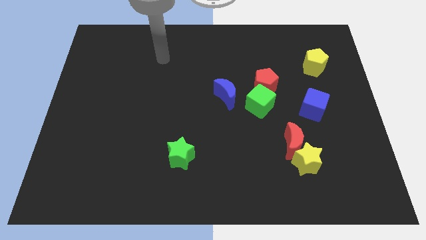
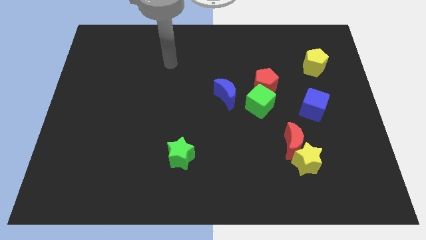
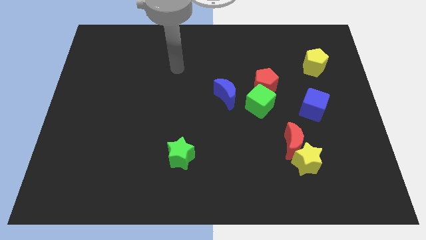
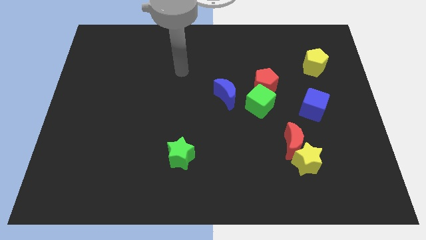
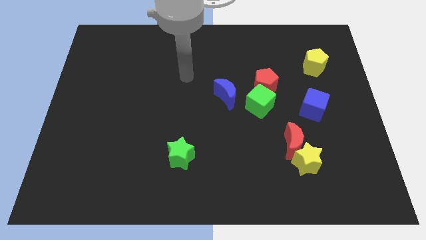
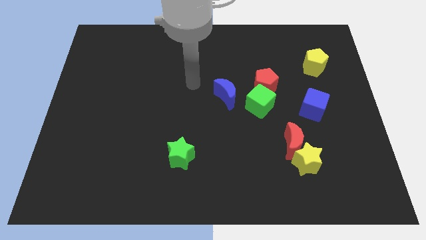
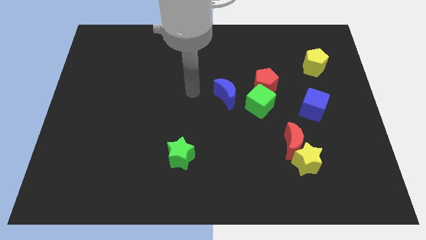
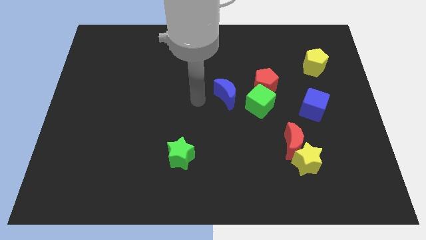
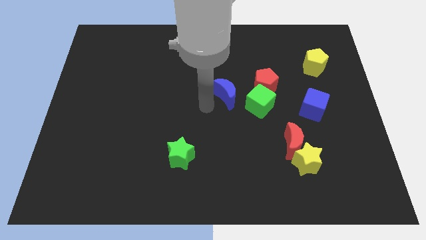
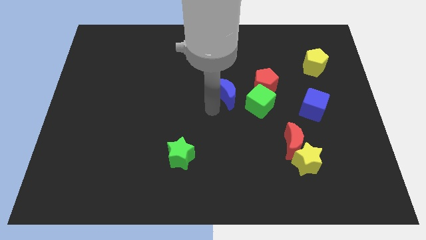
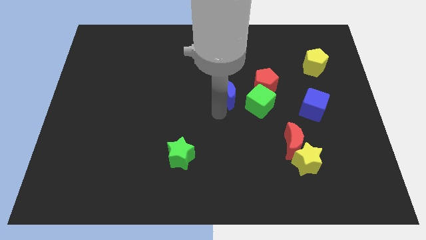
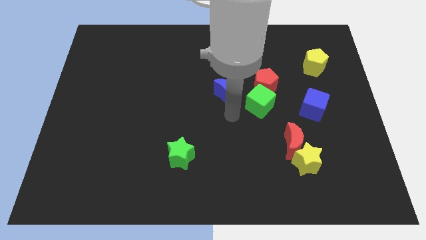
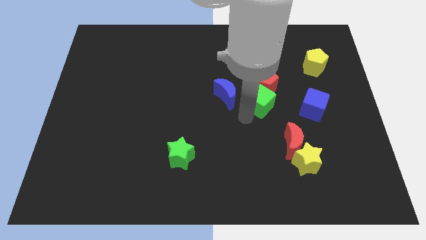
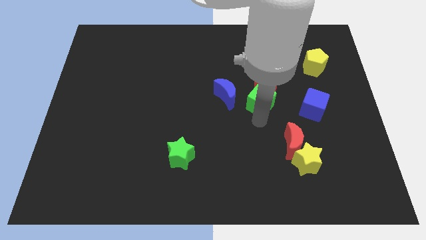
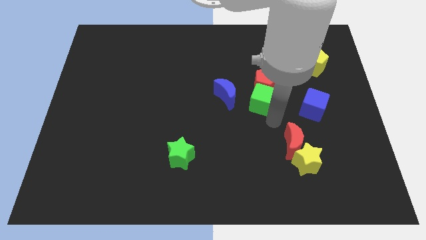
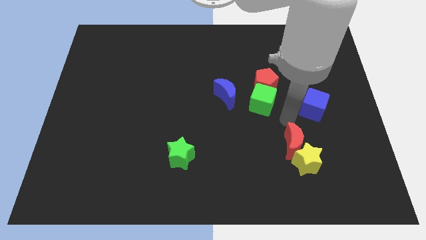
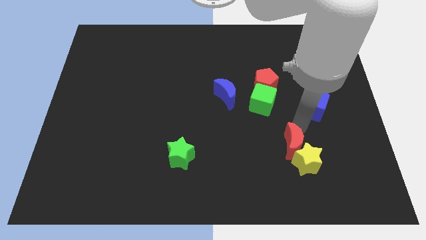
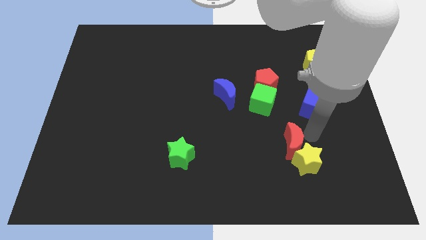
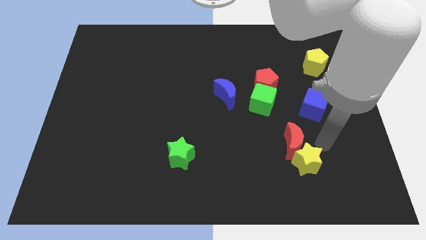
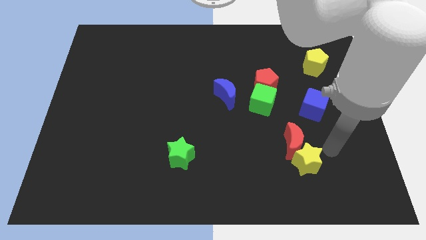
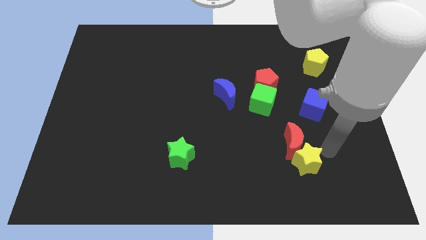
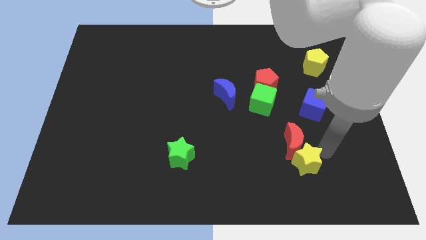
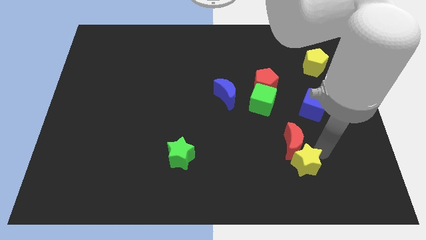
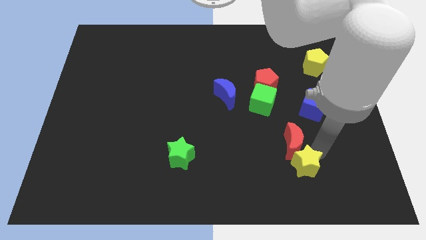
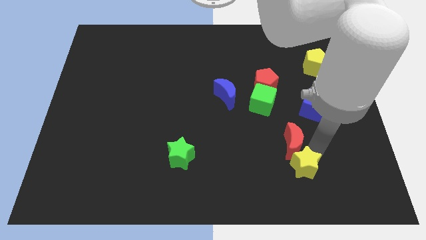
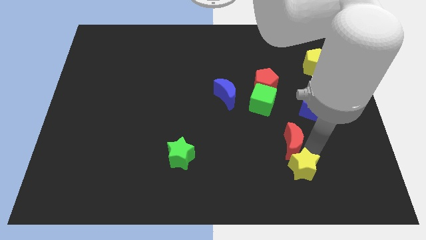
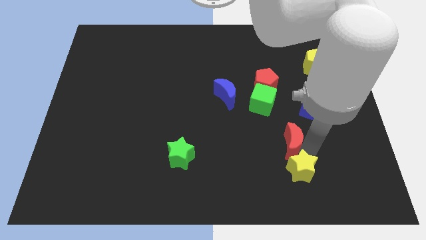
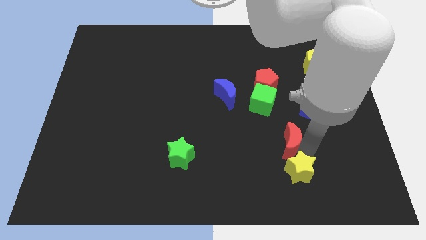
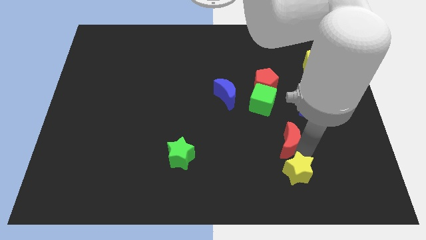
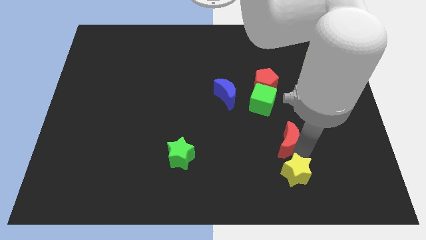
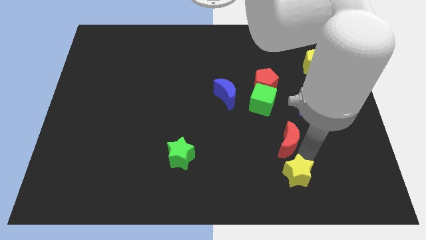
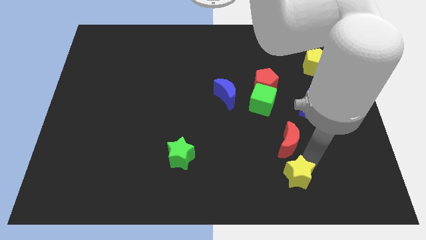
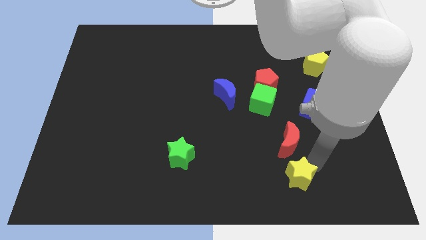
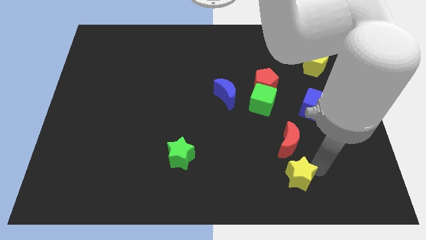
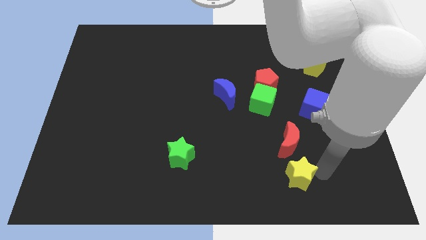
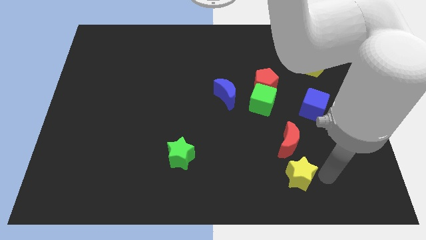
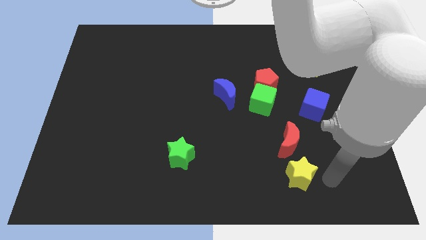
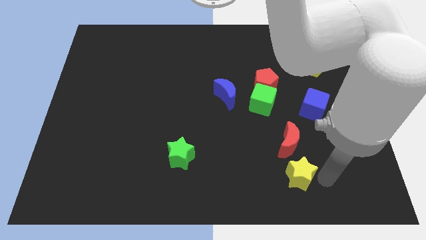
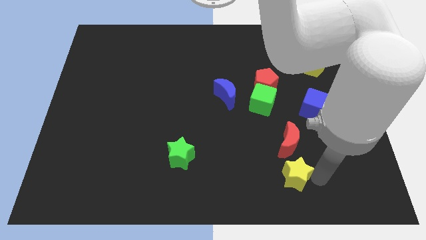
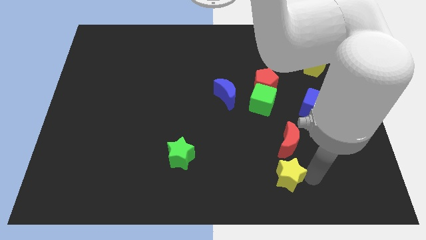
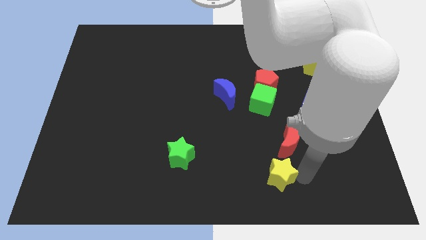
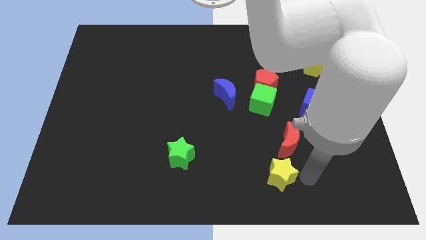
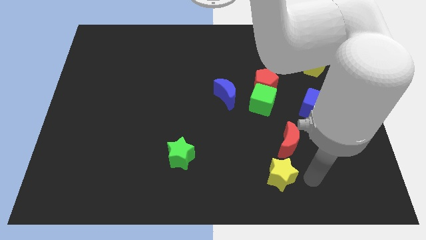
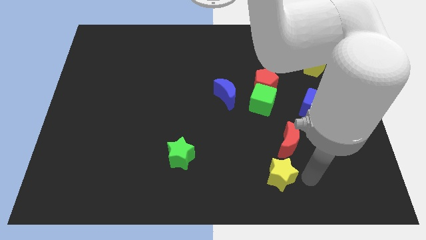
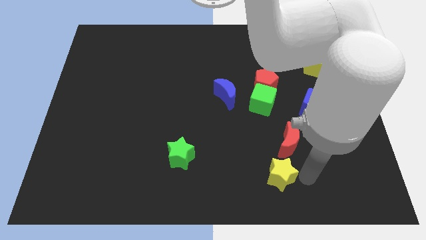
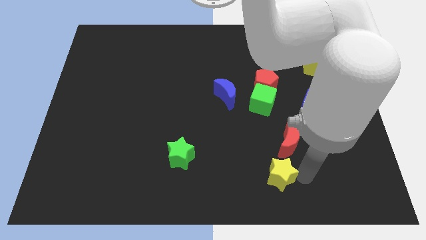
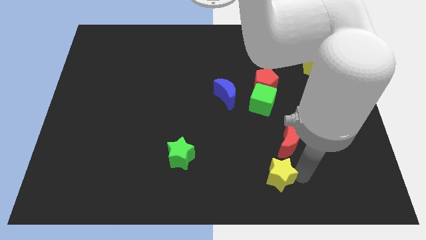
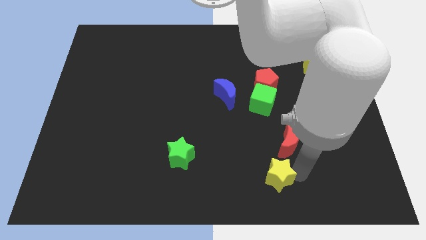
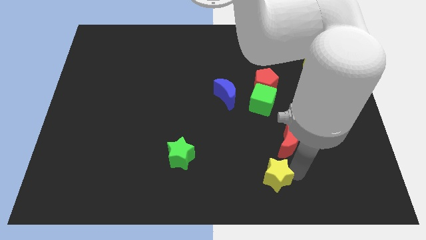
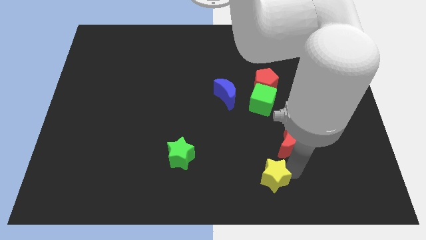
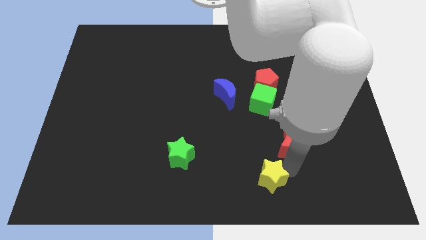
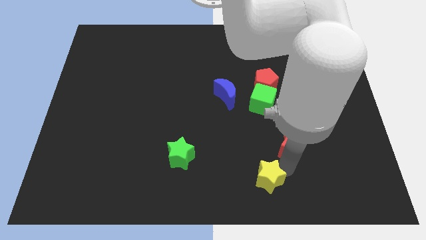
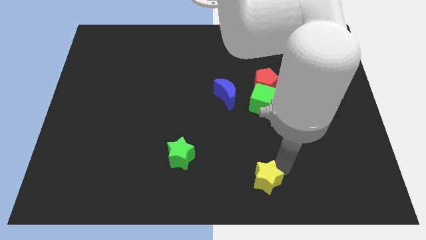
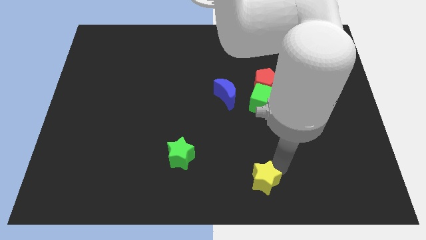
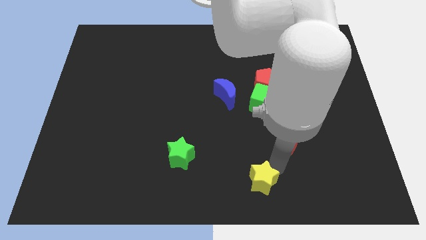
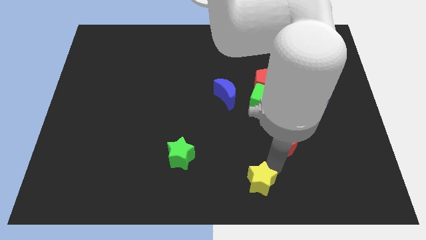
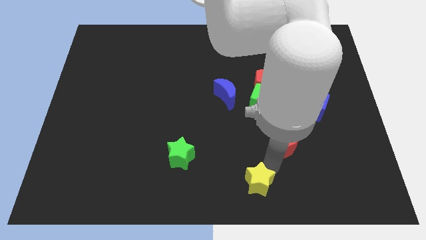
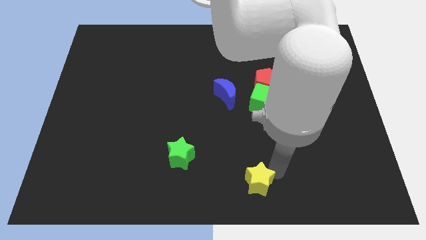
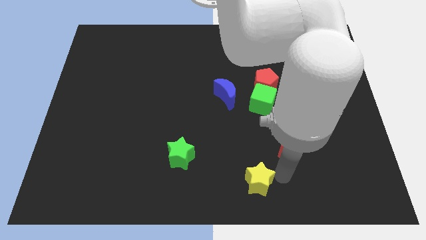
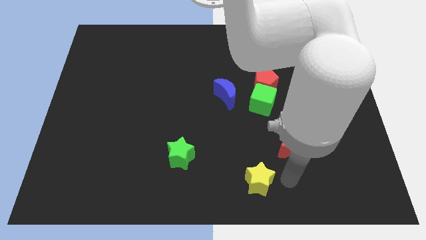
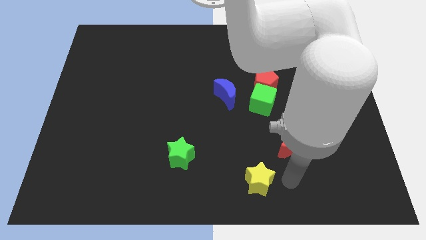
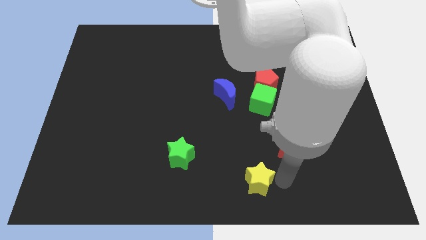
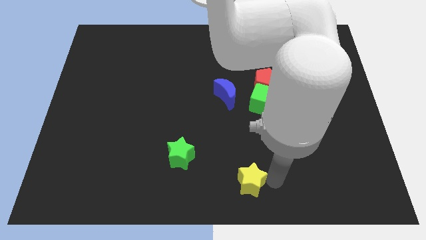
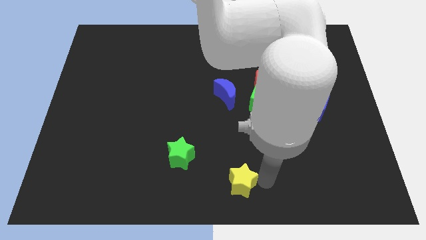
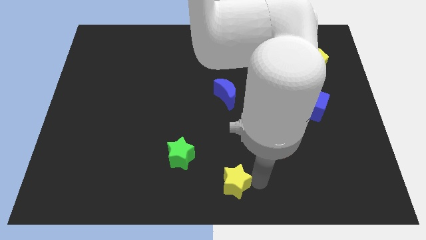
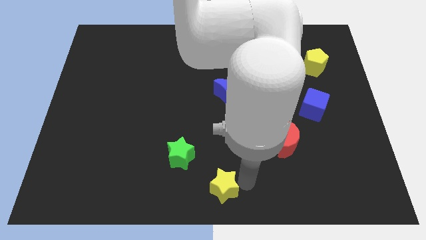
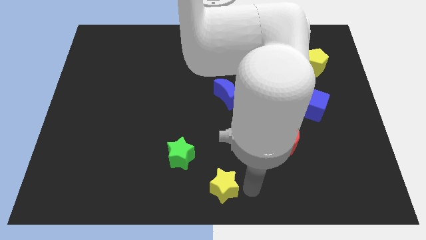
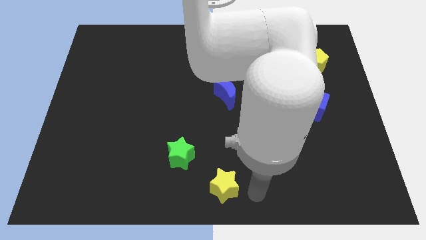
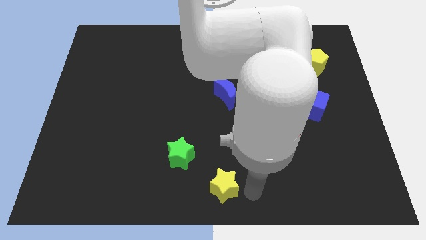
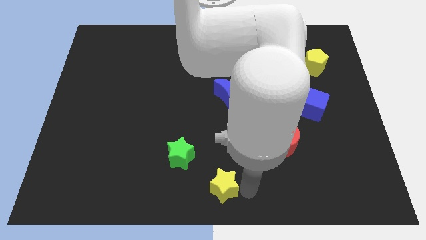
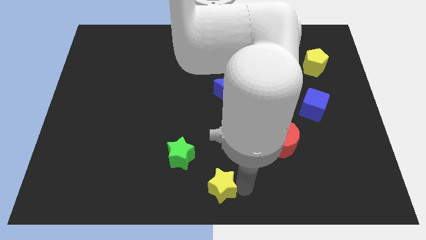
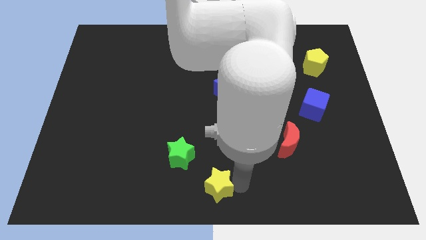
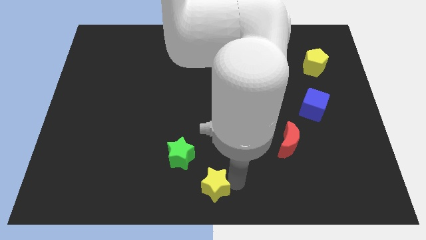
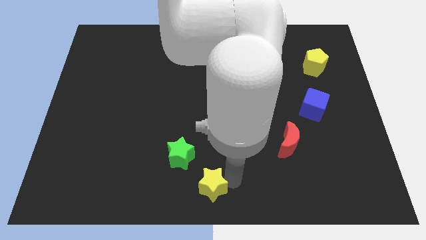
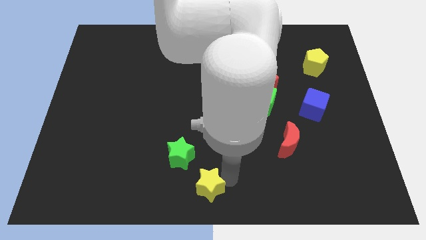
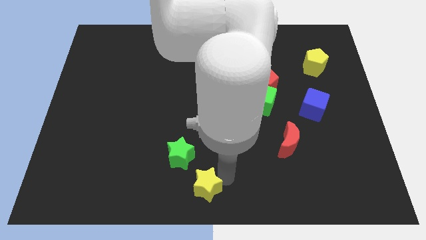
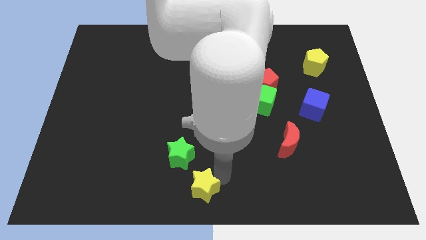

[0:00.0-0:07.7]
push the yellow star left

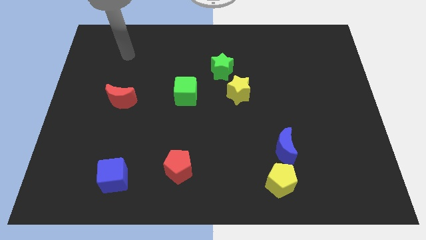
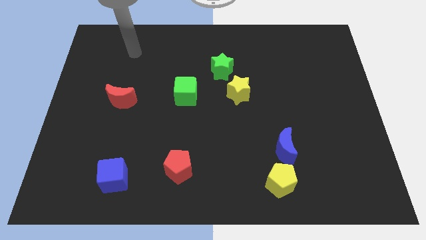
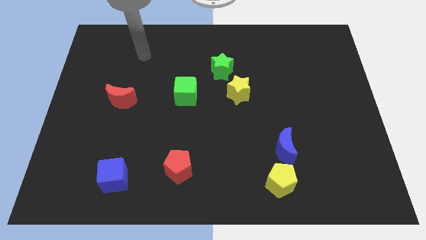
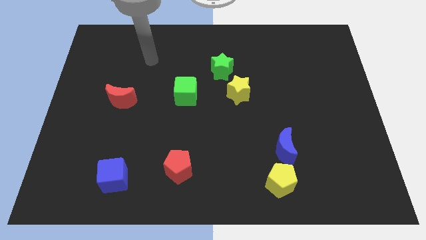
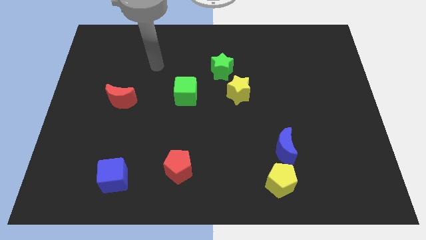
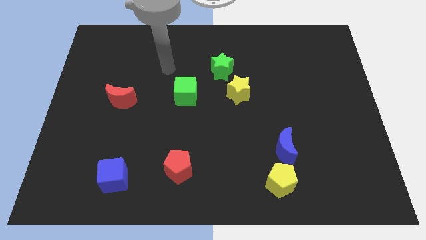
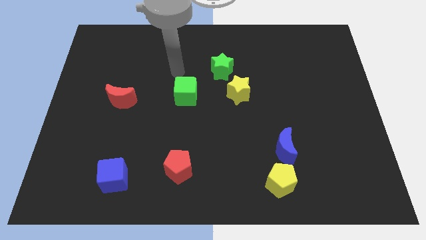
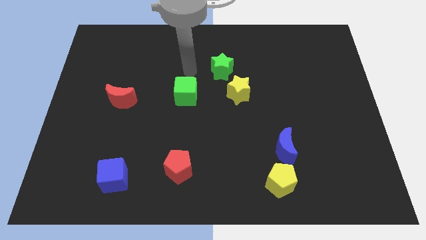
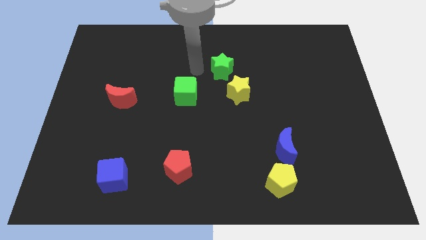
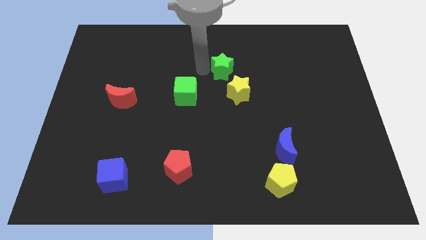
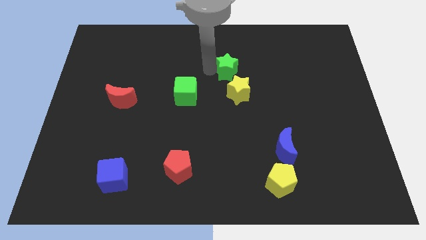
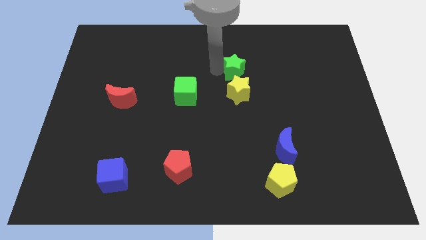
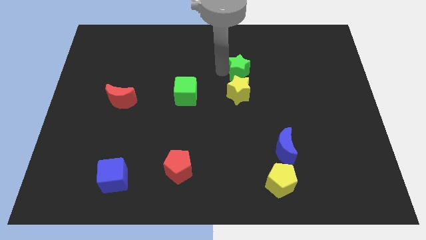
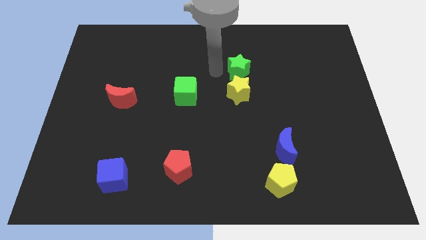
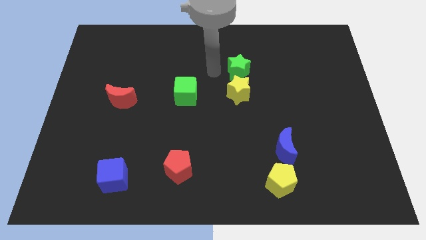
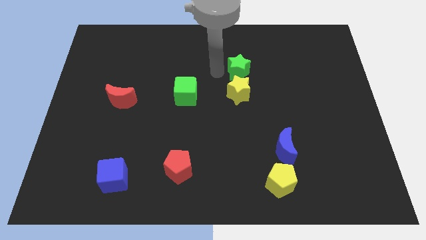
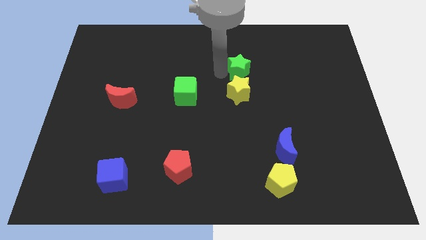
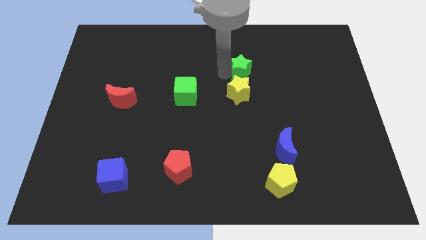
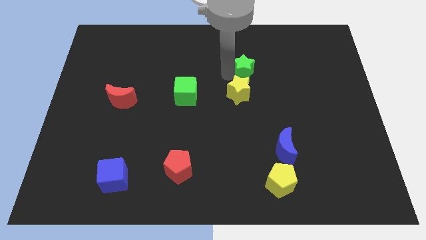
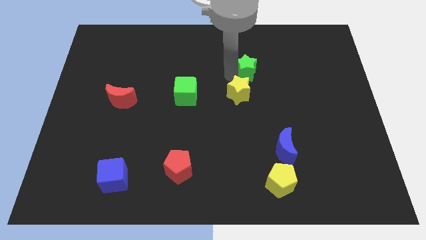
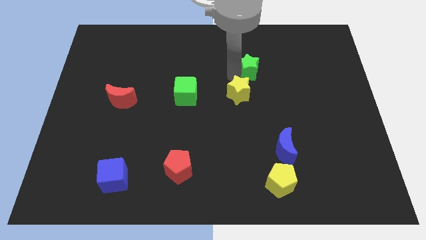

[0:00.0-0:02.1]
move the green star to the right a bit
